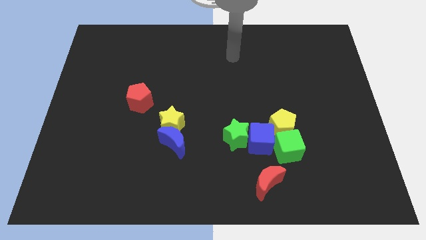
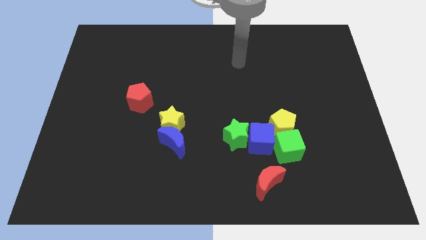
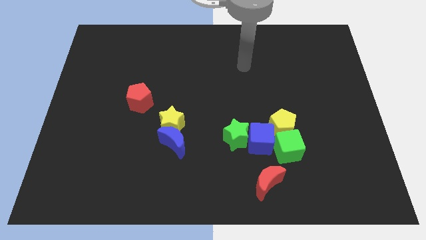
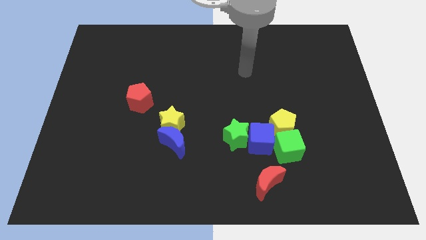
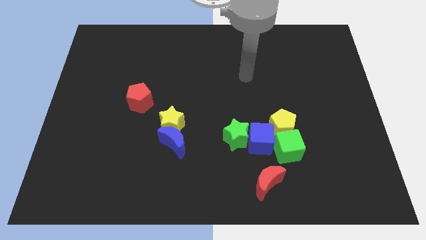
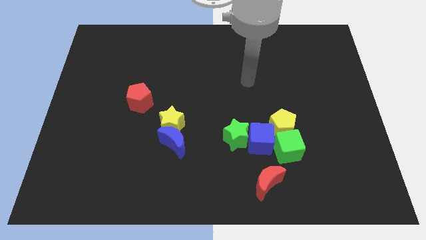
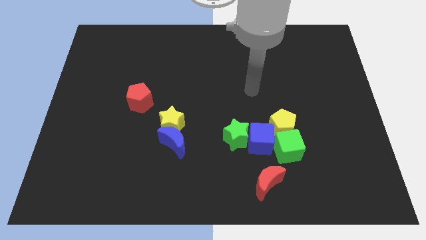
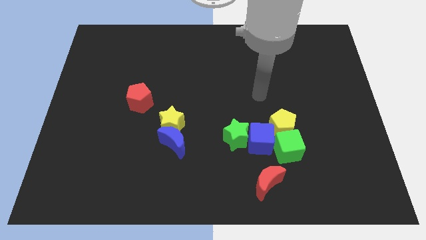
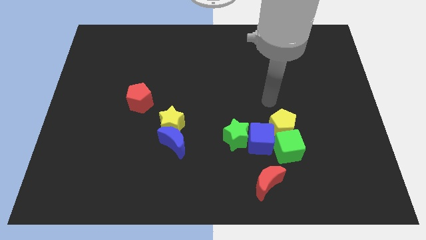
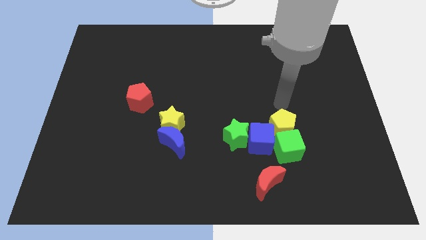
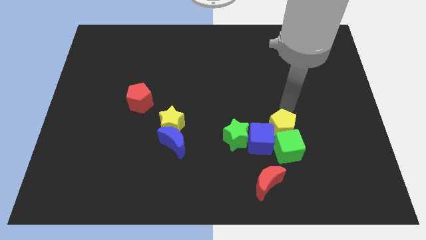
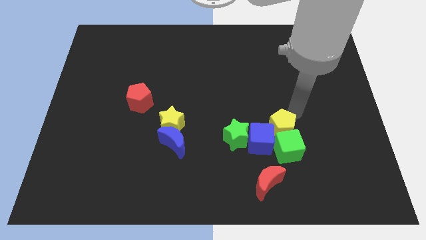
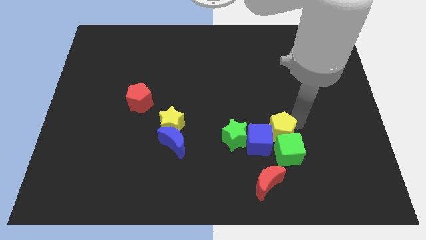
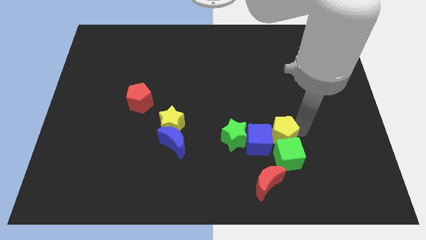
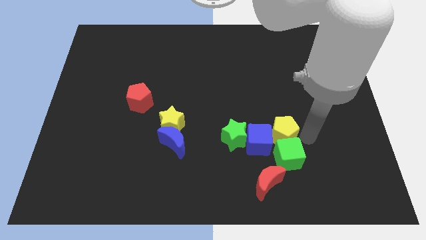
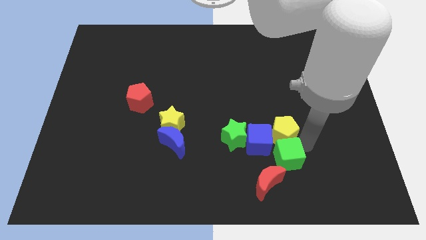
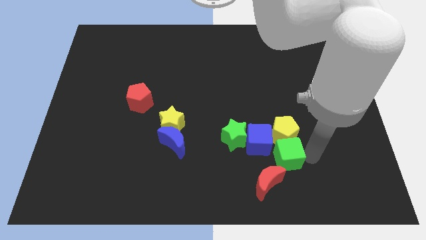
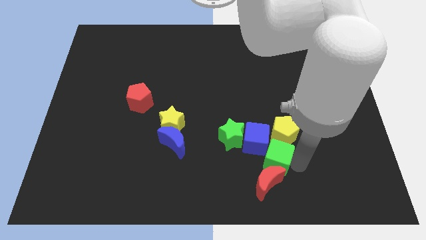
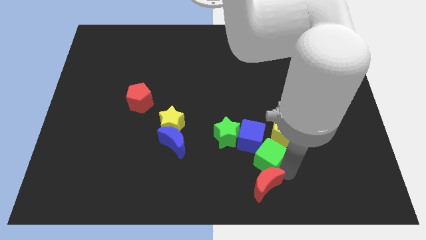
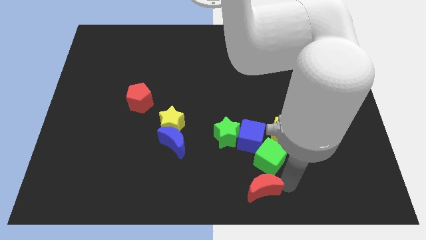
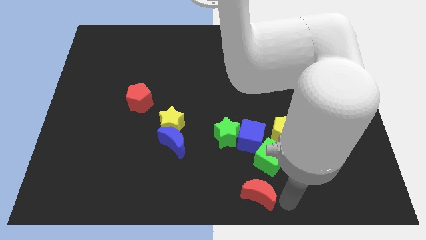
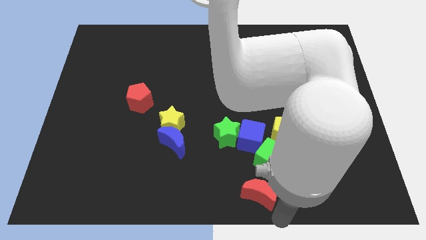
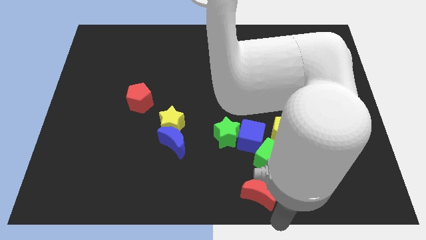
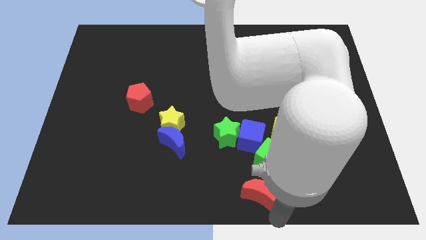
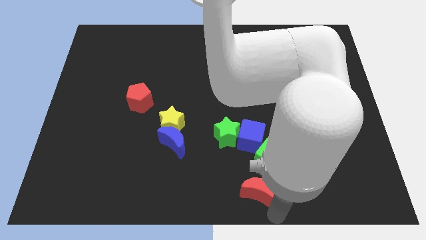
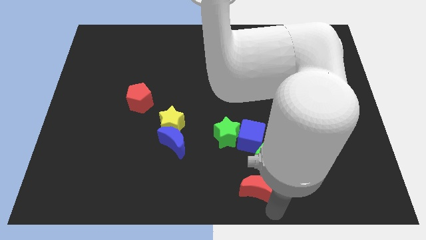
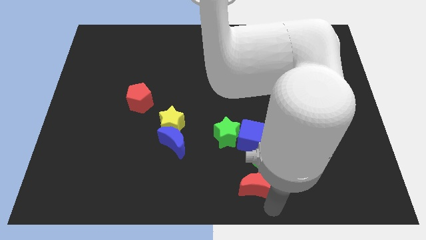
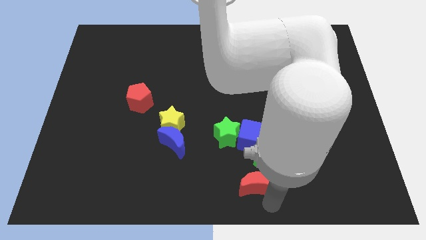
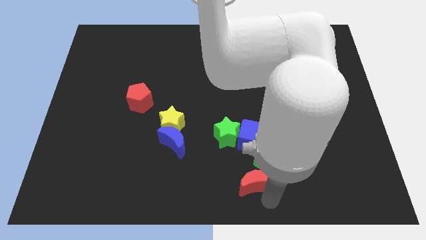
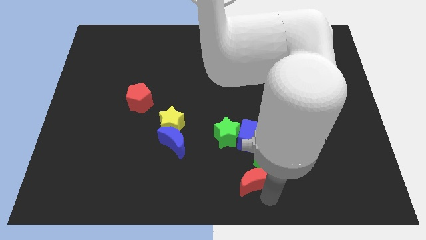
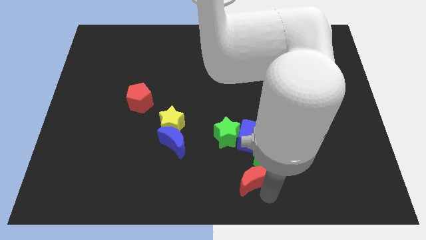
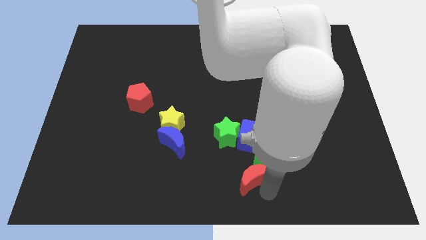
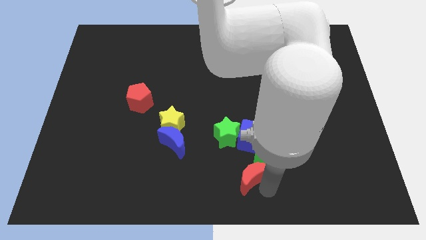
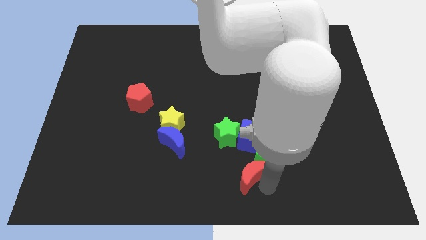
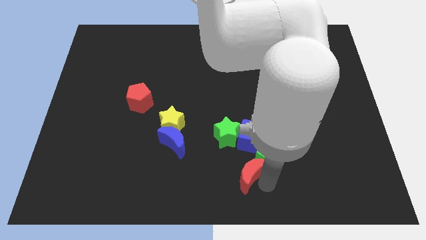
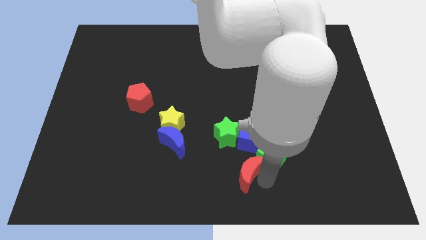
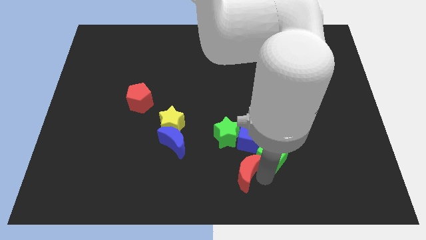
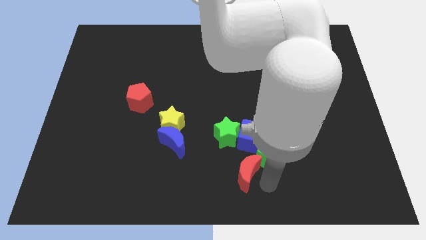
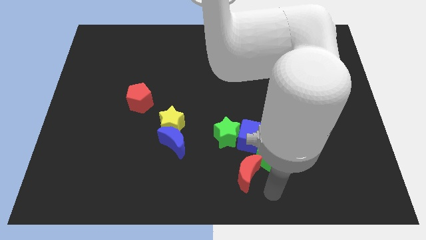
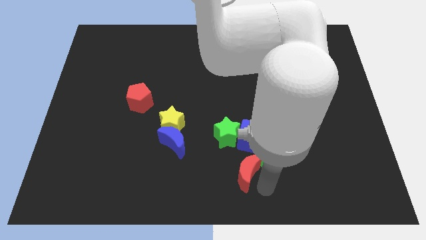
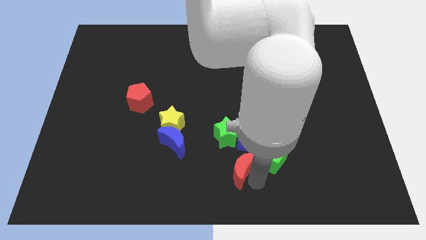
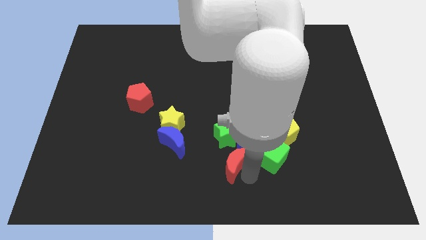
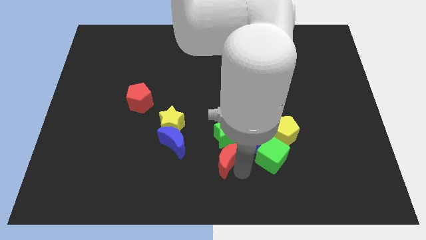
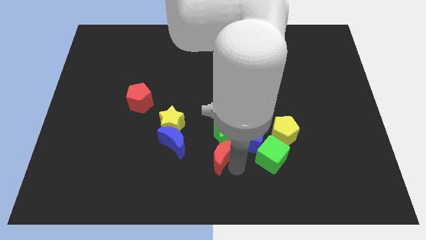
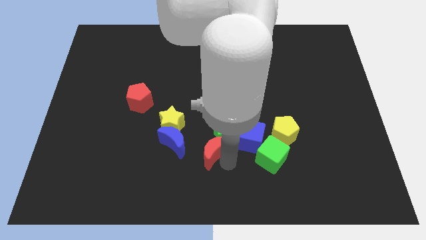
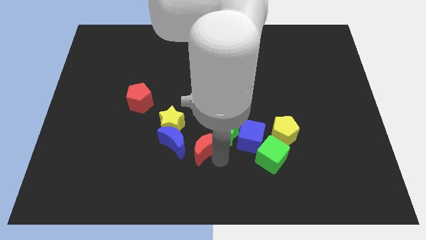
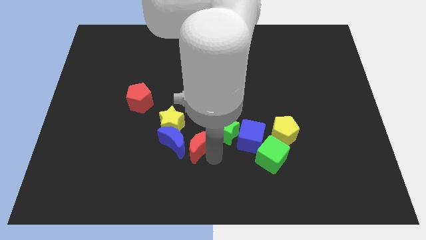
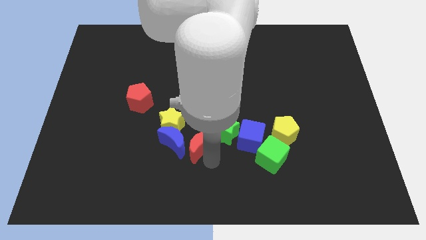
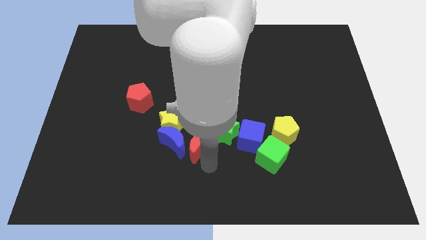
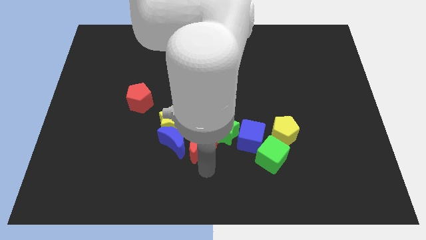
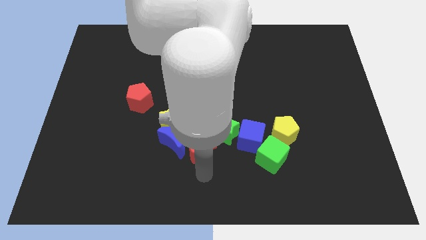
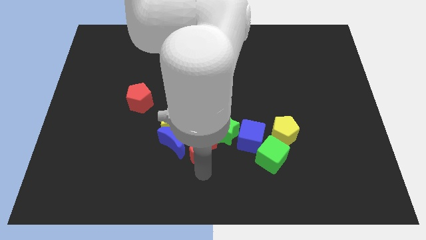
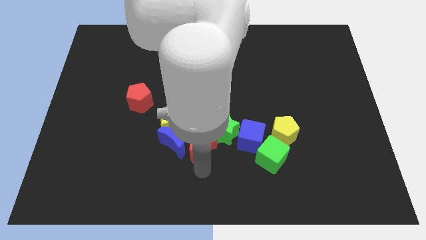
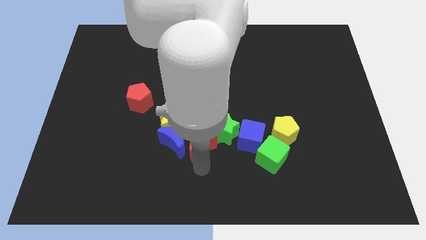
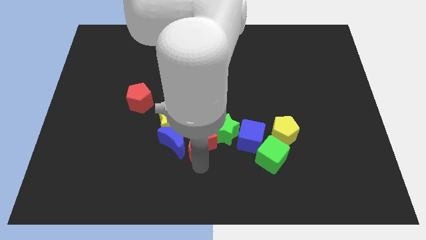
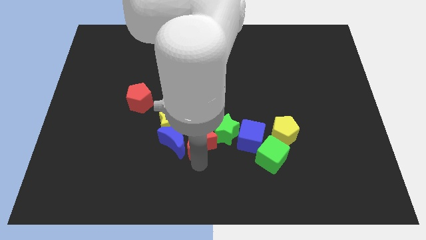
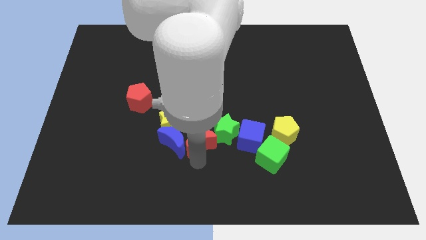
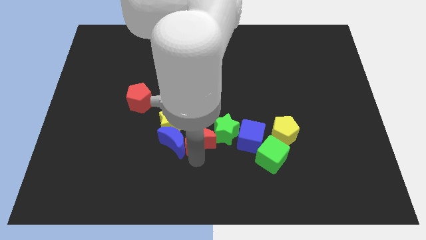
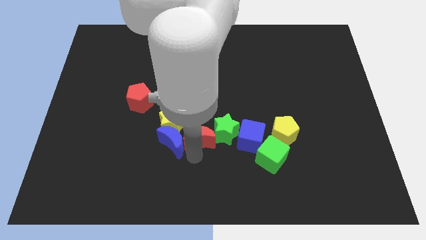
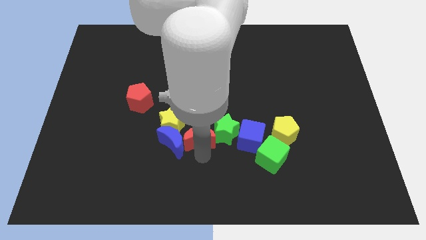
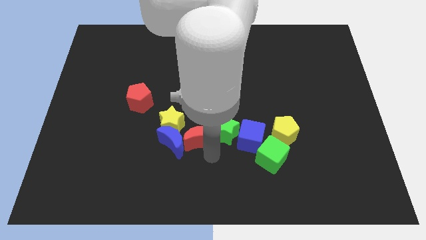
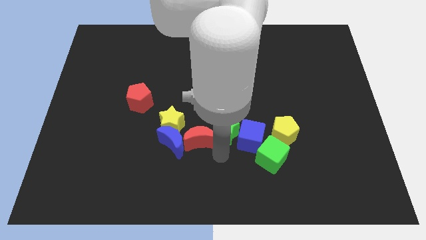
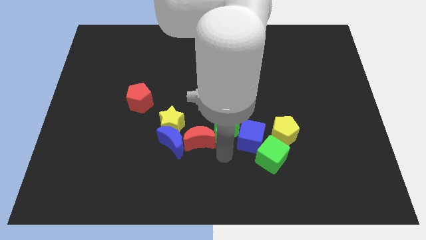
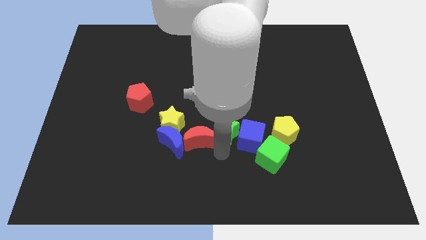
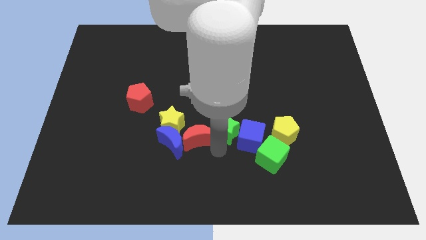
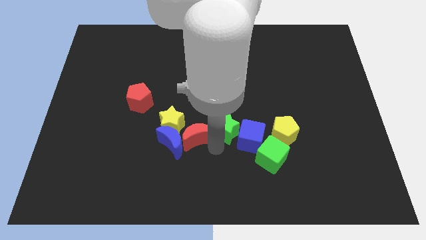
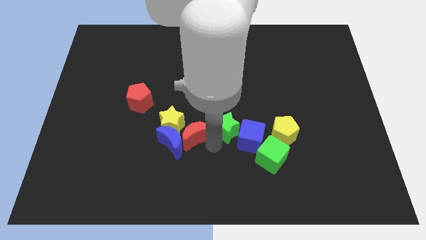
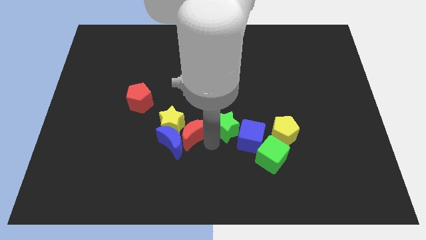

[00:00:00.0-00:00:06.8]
move the red moon towards the yellow star
